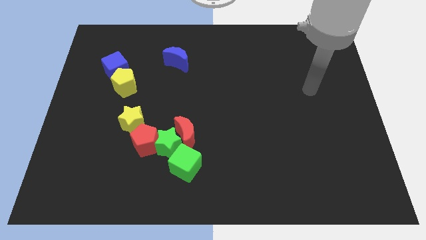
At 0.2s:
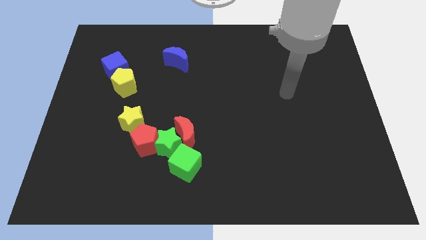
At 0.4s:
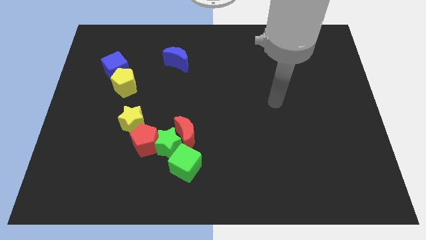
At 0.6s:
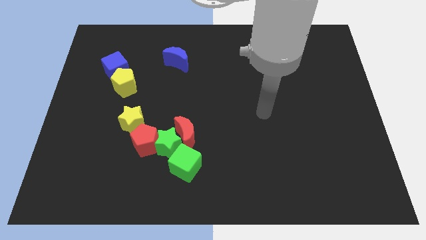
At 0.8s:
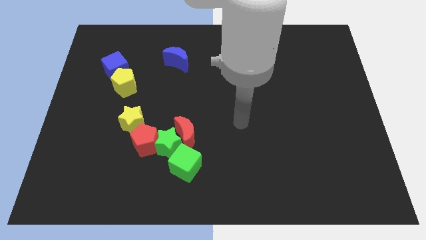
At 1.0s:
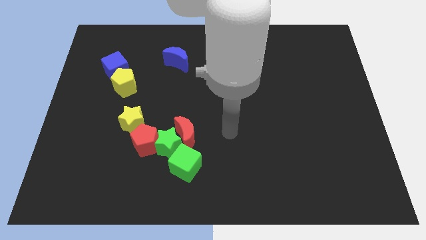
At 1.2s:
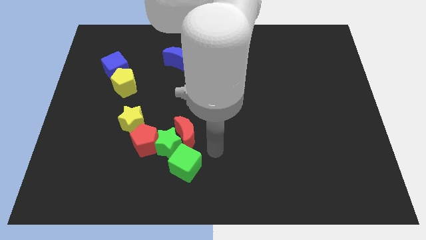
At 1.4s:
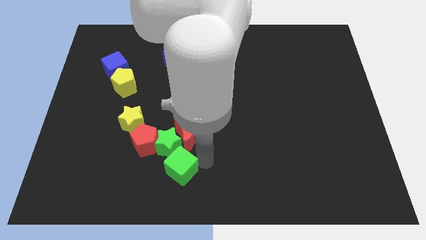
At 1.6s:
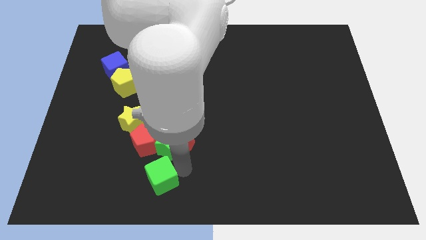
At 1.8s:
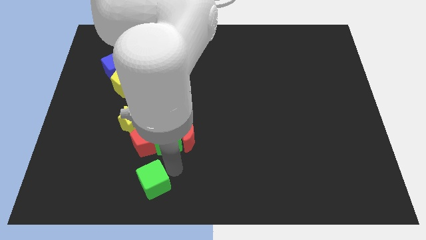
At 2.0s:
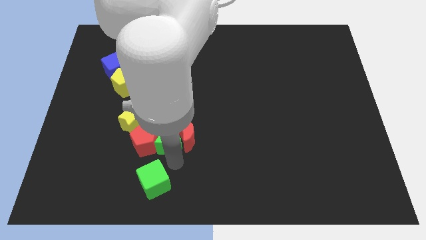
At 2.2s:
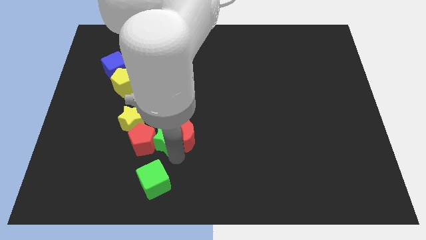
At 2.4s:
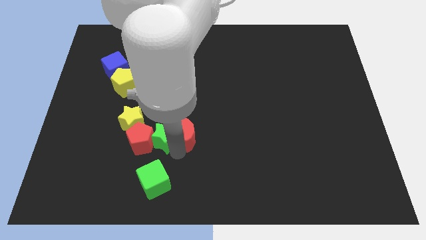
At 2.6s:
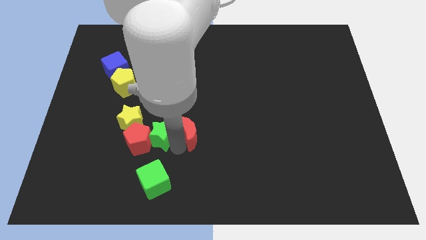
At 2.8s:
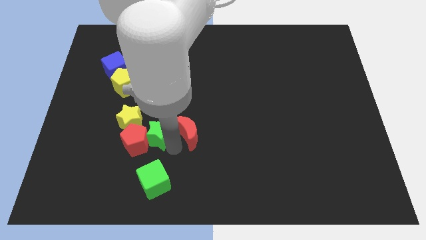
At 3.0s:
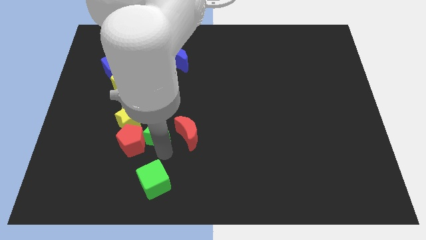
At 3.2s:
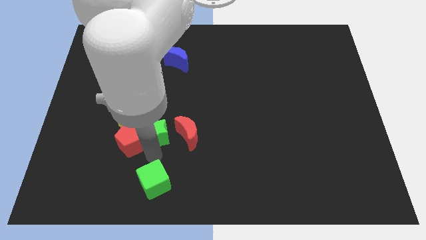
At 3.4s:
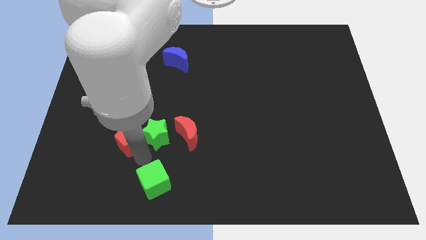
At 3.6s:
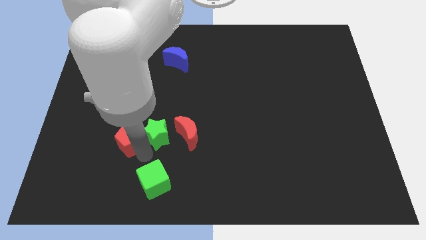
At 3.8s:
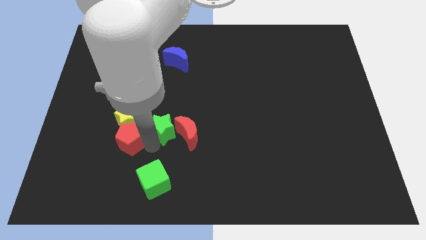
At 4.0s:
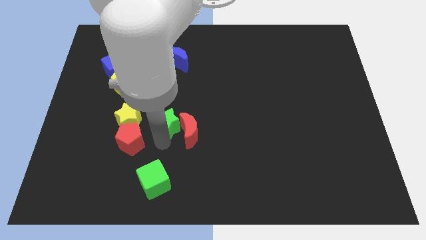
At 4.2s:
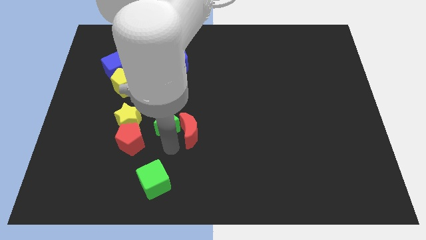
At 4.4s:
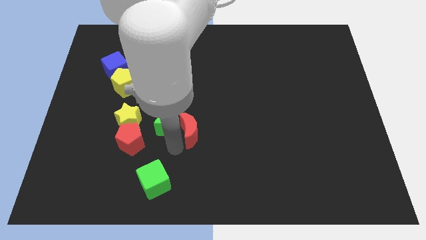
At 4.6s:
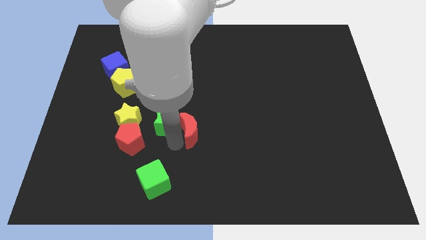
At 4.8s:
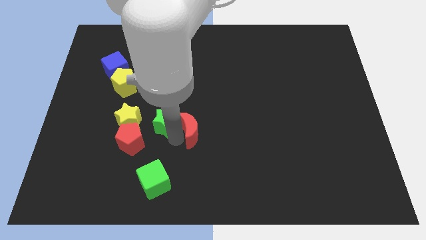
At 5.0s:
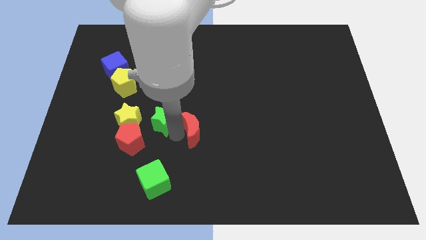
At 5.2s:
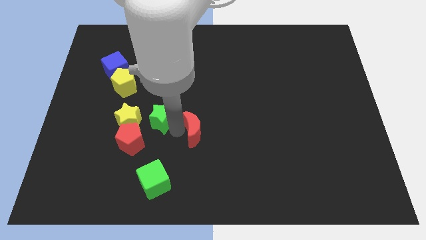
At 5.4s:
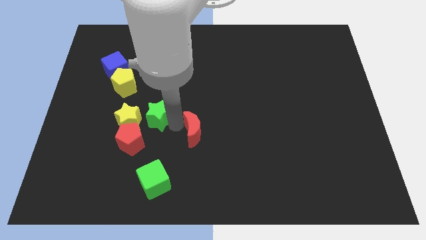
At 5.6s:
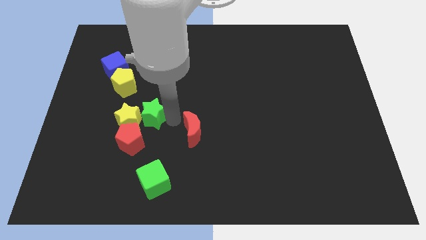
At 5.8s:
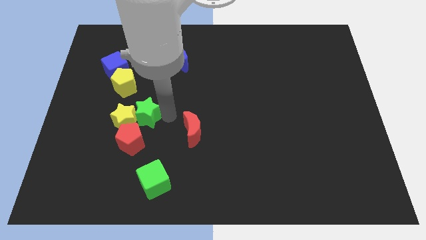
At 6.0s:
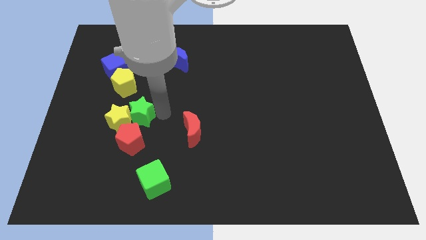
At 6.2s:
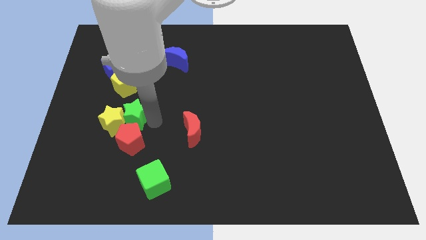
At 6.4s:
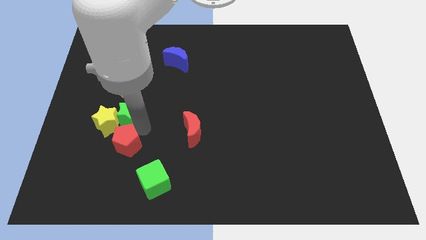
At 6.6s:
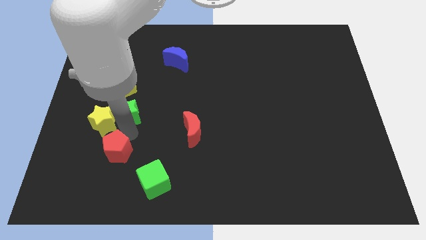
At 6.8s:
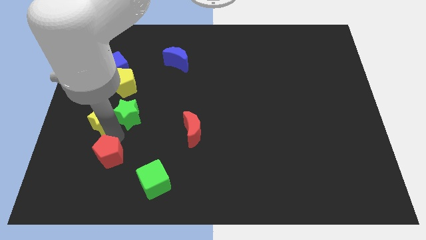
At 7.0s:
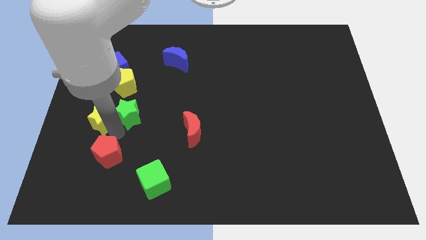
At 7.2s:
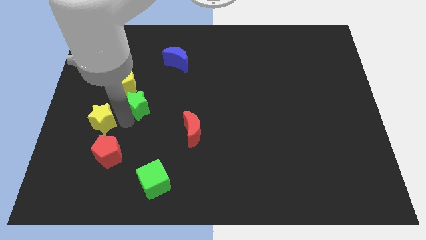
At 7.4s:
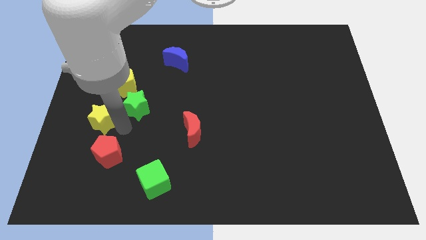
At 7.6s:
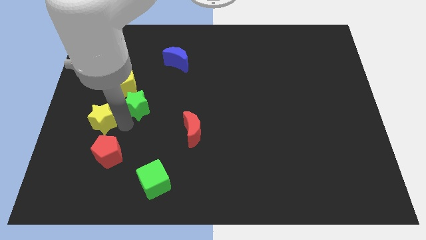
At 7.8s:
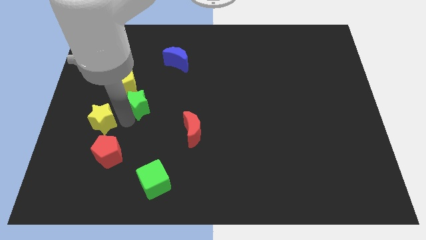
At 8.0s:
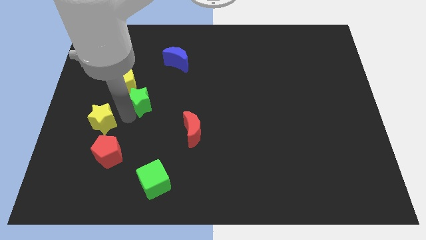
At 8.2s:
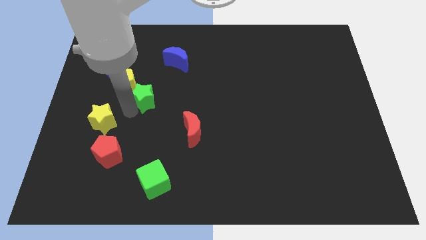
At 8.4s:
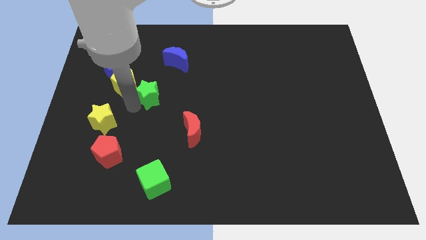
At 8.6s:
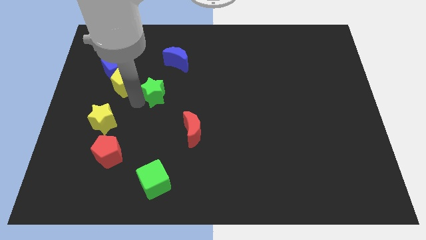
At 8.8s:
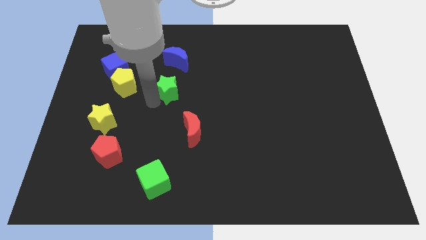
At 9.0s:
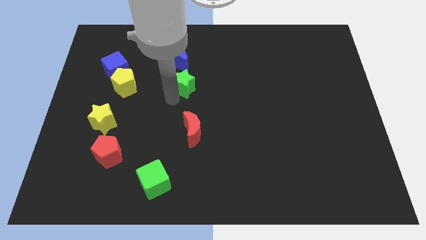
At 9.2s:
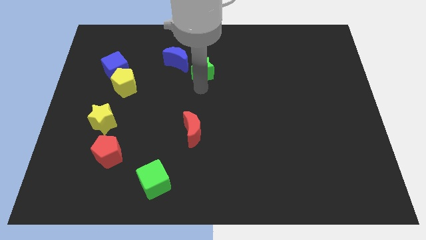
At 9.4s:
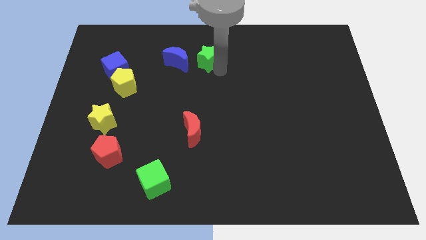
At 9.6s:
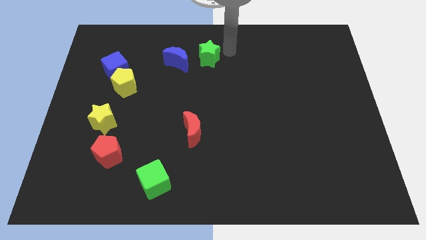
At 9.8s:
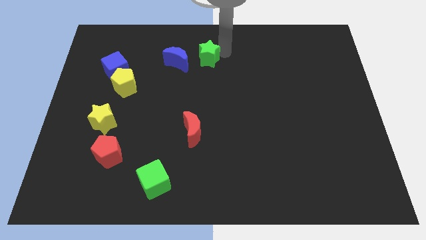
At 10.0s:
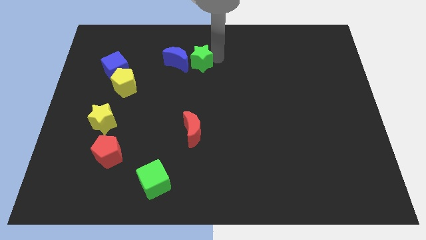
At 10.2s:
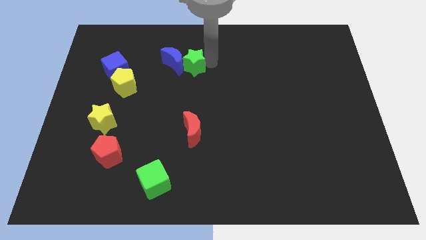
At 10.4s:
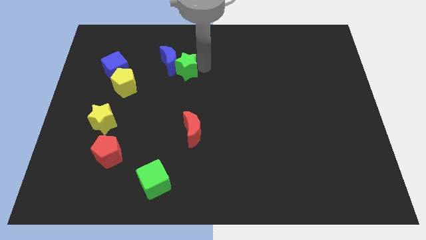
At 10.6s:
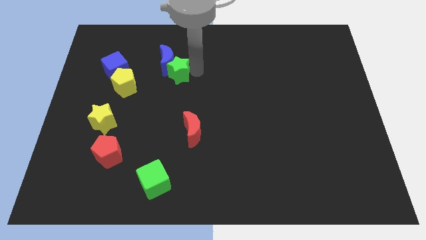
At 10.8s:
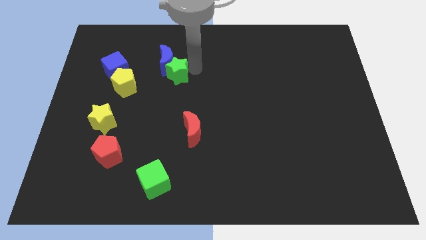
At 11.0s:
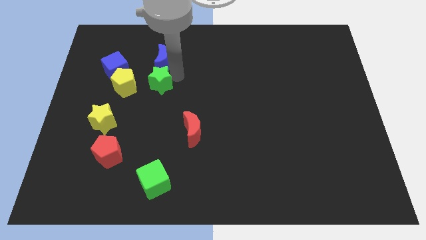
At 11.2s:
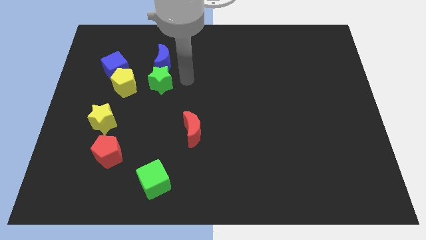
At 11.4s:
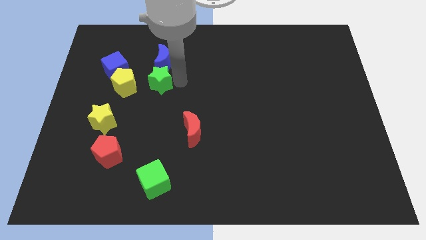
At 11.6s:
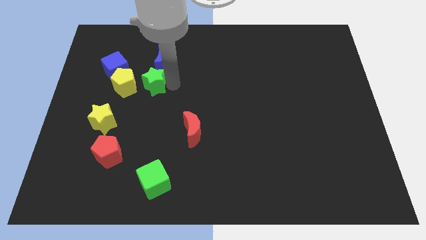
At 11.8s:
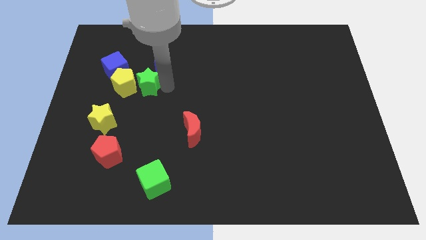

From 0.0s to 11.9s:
put the green star close to the yellow pentagon

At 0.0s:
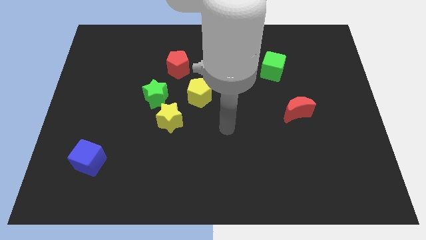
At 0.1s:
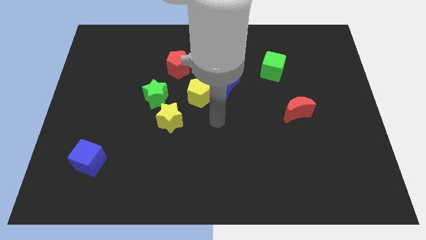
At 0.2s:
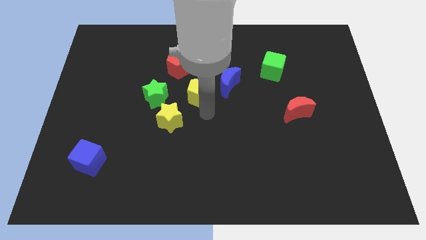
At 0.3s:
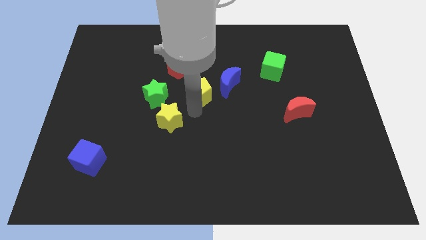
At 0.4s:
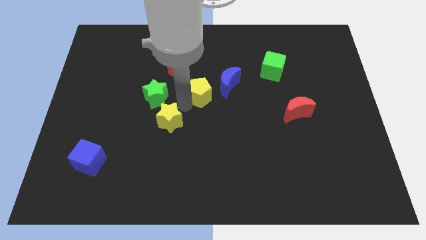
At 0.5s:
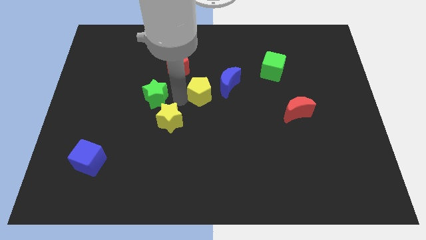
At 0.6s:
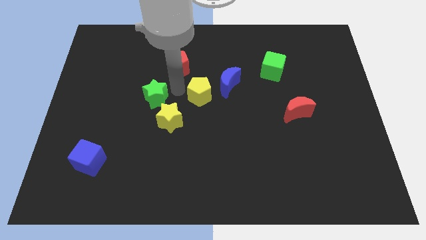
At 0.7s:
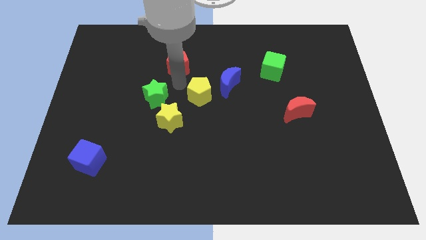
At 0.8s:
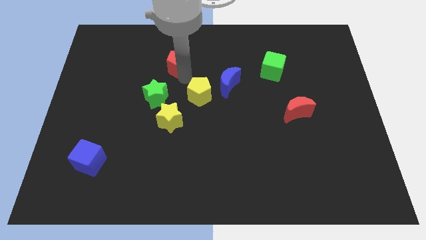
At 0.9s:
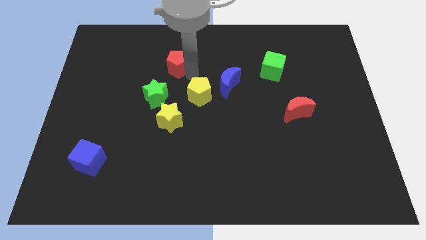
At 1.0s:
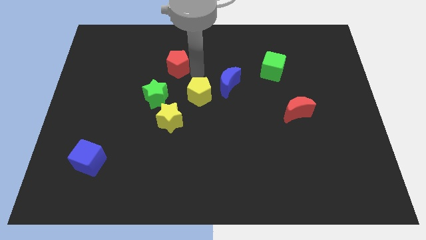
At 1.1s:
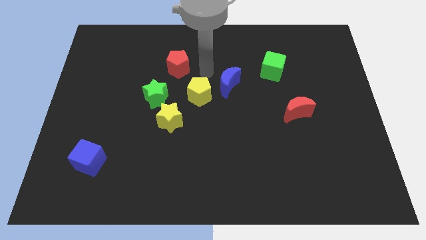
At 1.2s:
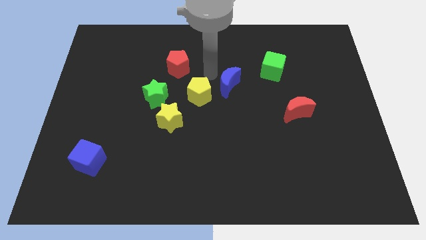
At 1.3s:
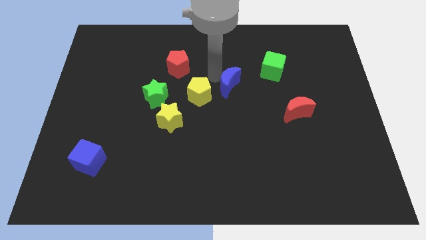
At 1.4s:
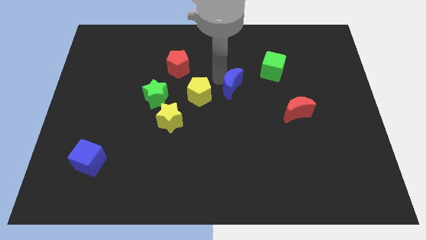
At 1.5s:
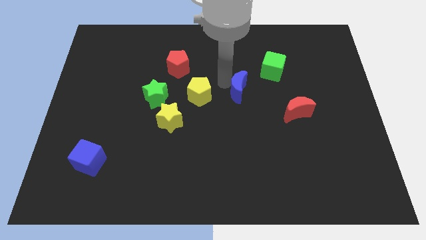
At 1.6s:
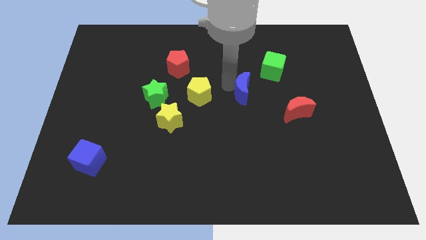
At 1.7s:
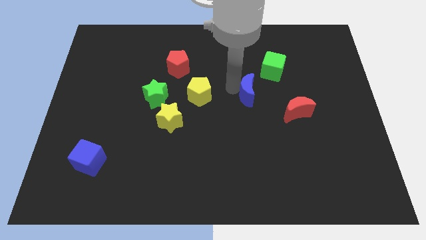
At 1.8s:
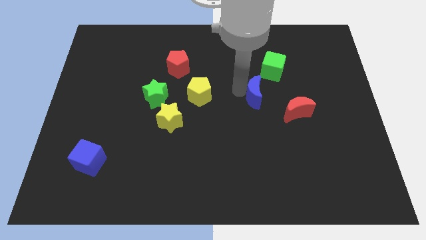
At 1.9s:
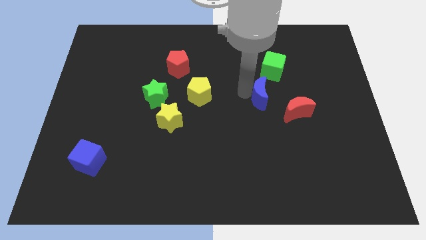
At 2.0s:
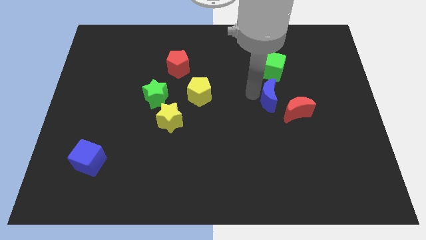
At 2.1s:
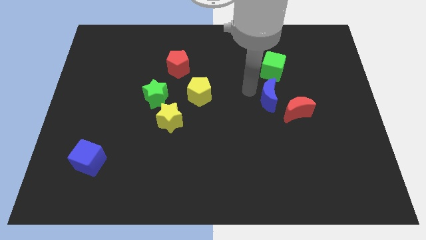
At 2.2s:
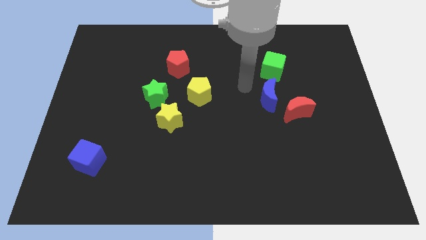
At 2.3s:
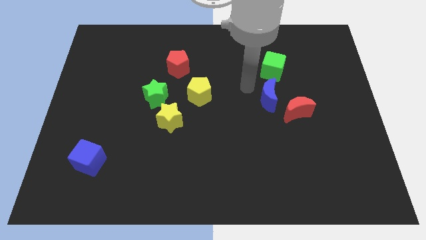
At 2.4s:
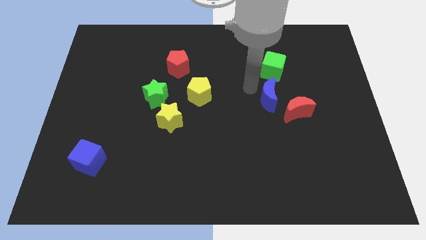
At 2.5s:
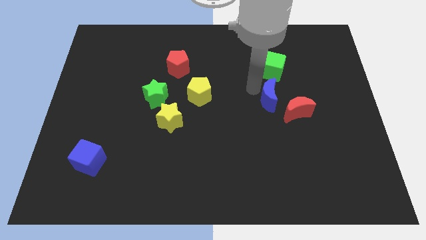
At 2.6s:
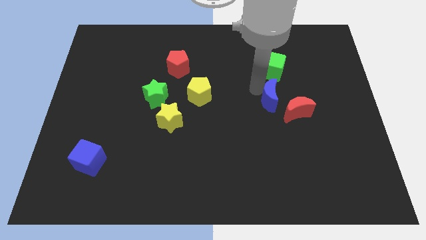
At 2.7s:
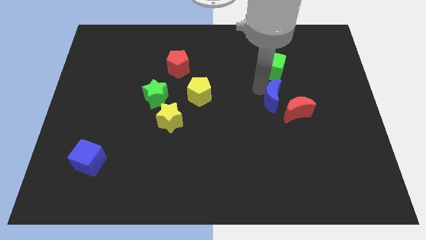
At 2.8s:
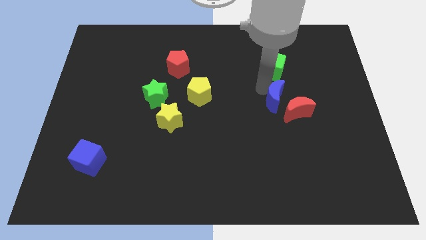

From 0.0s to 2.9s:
move the blue moon towards the red moon
